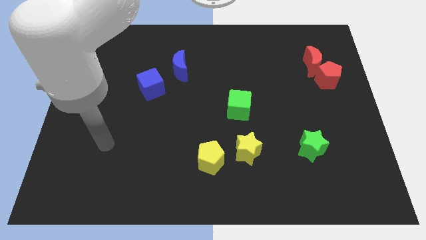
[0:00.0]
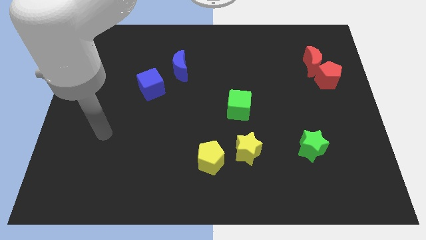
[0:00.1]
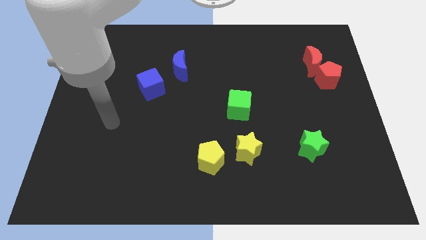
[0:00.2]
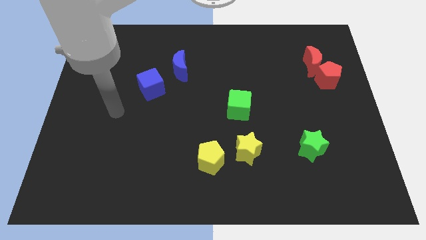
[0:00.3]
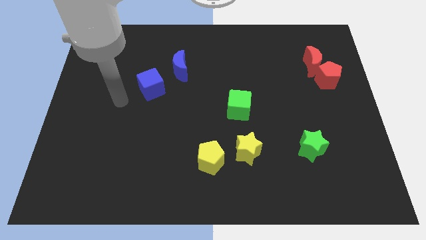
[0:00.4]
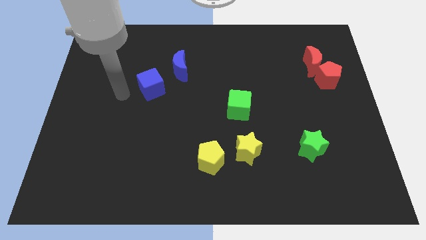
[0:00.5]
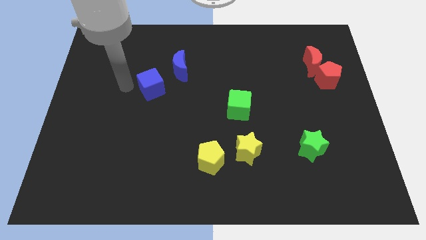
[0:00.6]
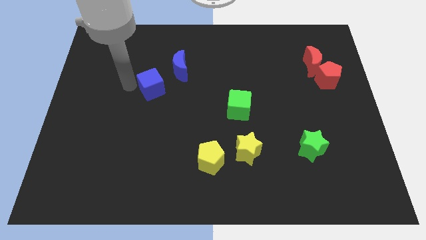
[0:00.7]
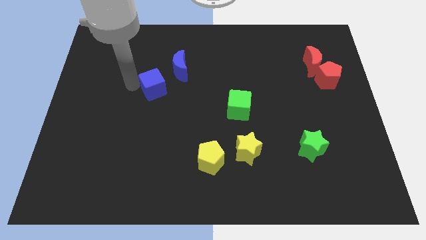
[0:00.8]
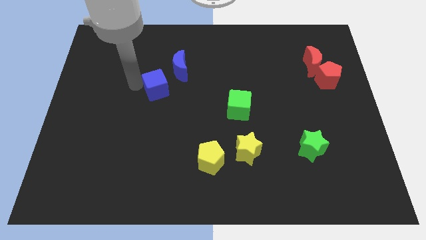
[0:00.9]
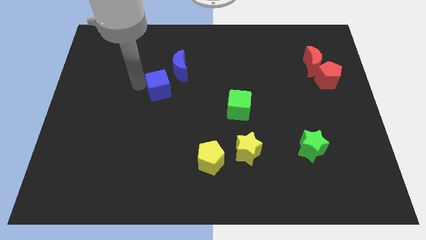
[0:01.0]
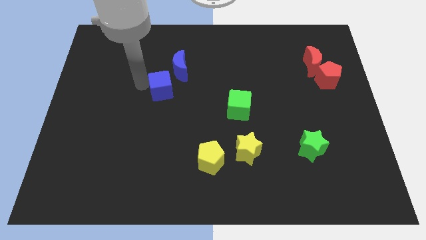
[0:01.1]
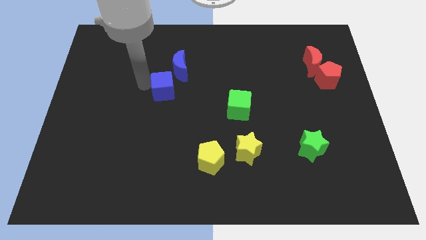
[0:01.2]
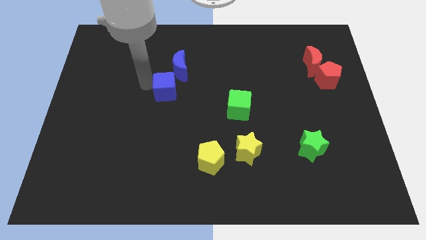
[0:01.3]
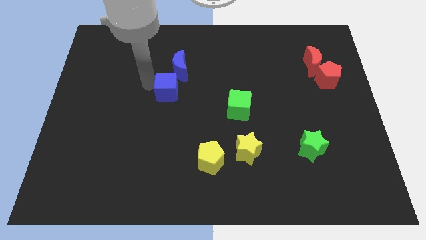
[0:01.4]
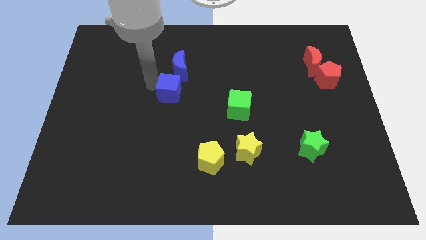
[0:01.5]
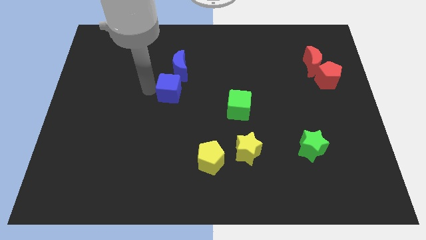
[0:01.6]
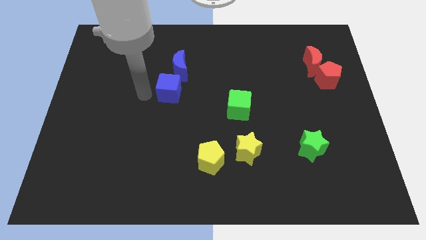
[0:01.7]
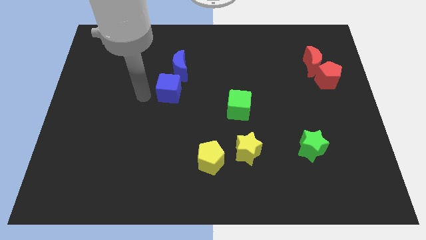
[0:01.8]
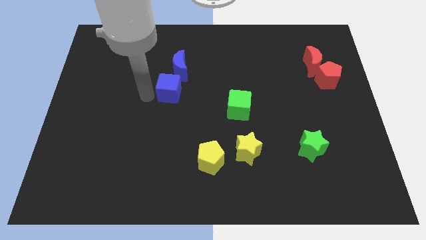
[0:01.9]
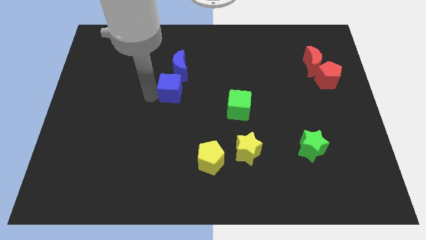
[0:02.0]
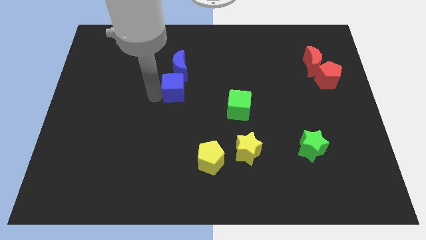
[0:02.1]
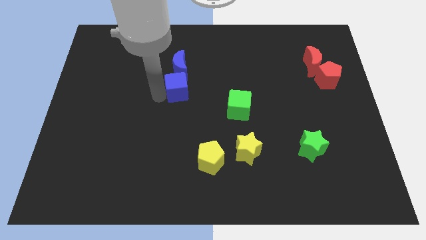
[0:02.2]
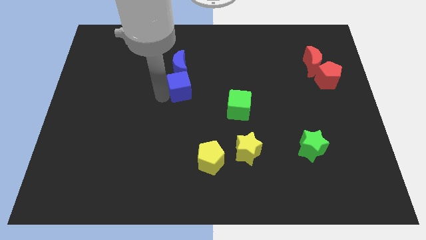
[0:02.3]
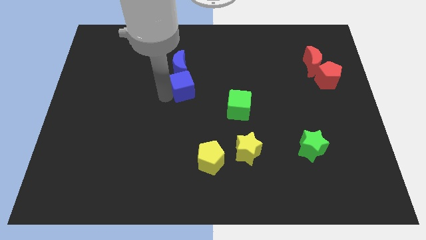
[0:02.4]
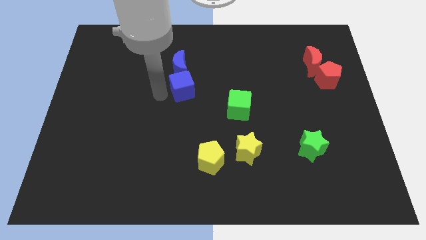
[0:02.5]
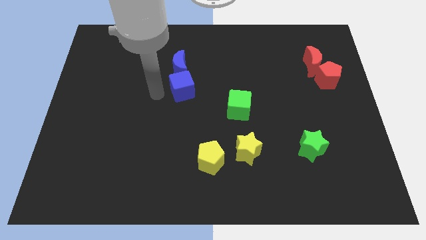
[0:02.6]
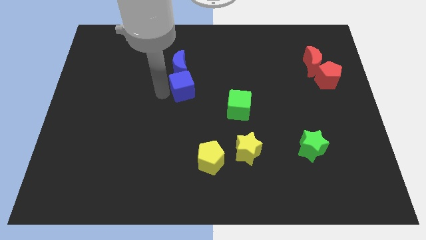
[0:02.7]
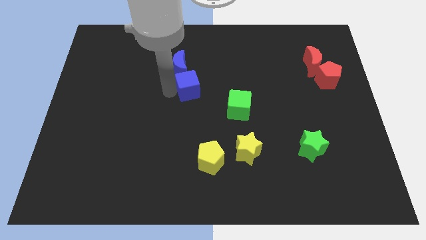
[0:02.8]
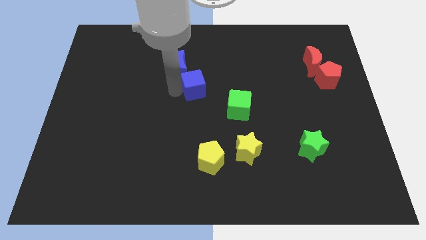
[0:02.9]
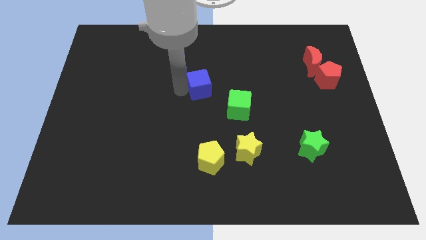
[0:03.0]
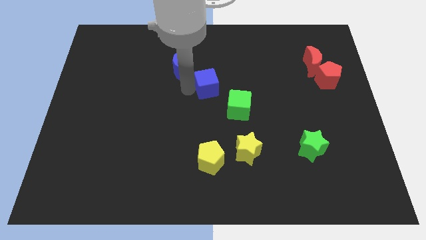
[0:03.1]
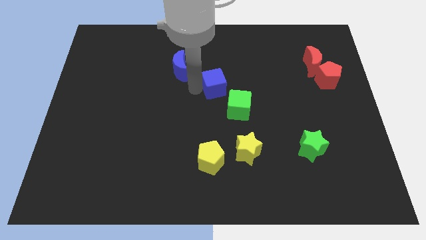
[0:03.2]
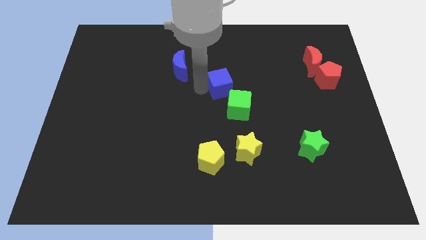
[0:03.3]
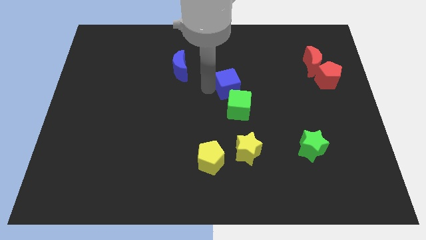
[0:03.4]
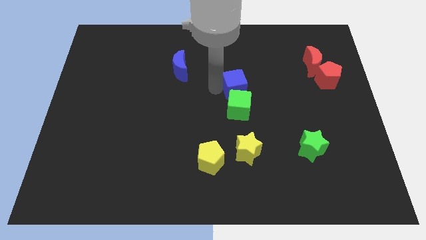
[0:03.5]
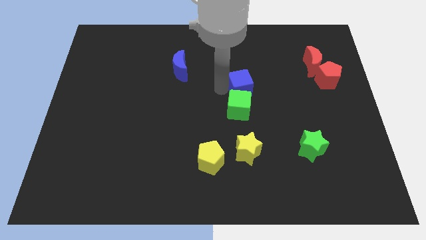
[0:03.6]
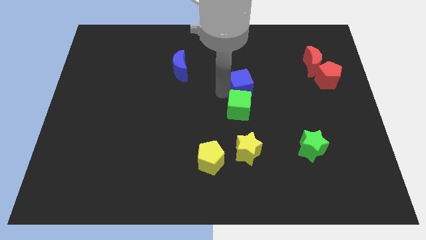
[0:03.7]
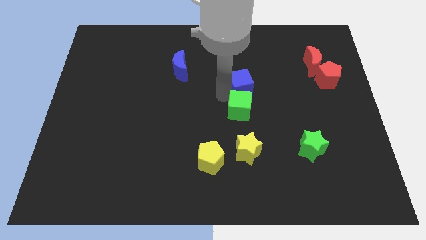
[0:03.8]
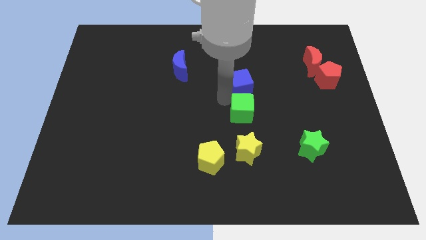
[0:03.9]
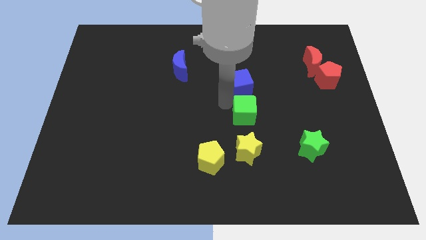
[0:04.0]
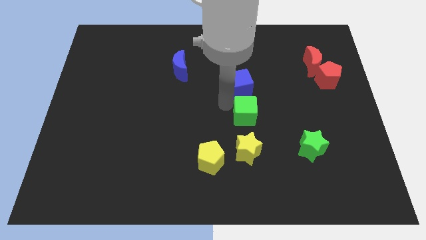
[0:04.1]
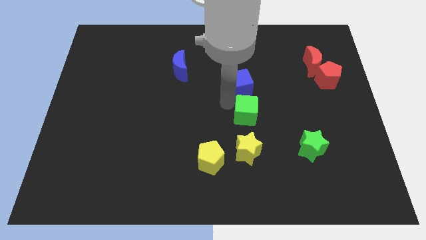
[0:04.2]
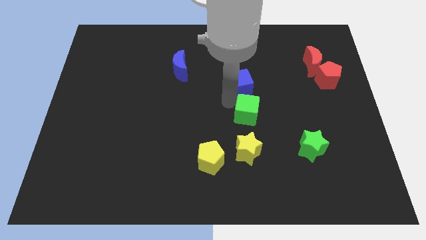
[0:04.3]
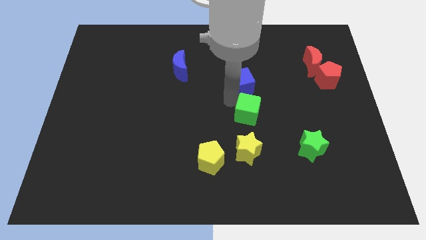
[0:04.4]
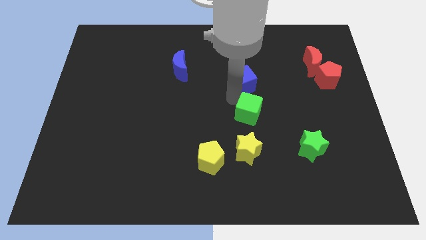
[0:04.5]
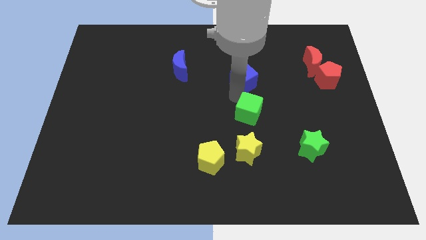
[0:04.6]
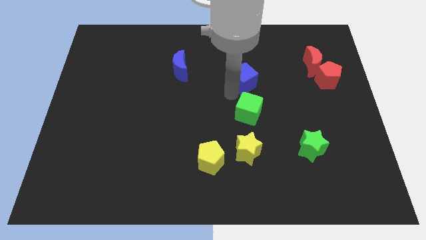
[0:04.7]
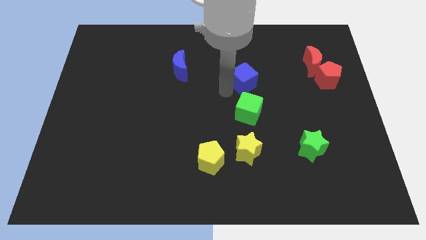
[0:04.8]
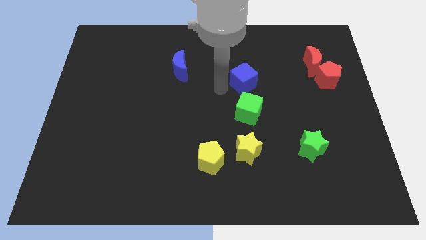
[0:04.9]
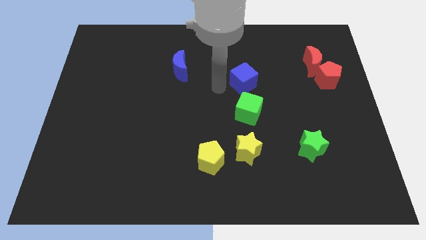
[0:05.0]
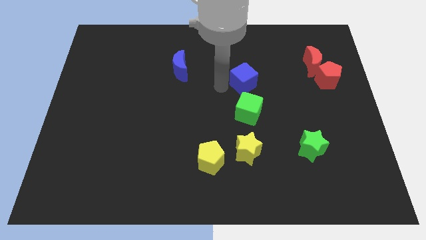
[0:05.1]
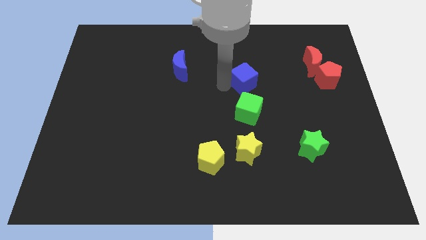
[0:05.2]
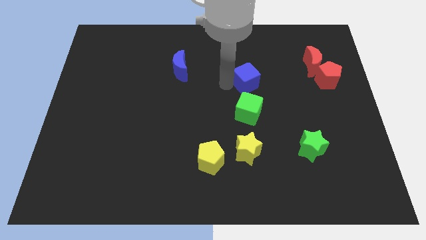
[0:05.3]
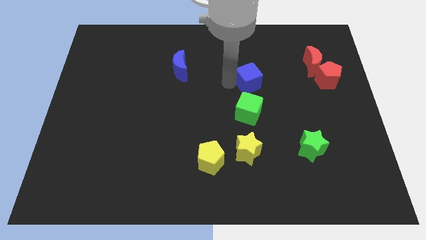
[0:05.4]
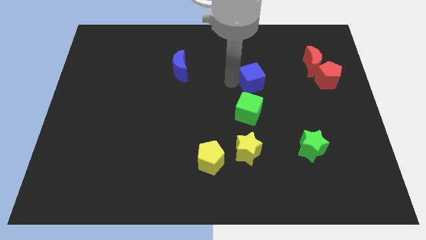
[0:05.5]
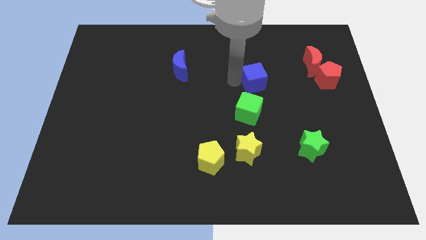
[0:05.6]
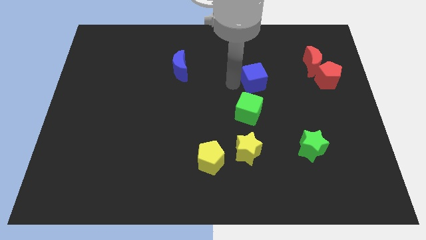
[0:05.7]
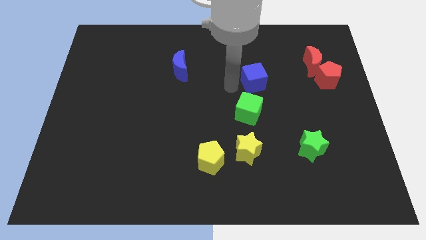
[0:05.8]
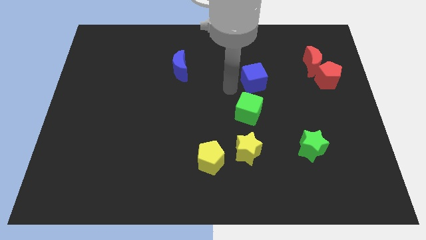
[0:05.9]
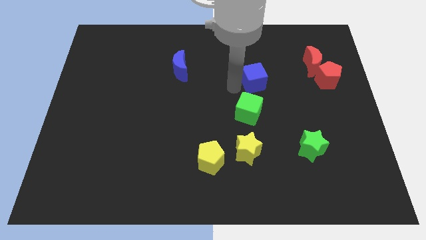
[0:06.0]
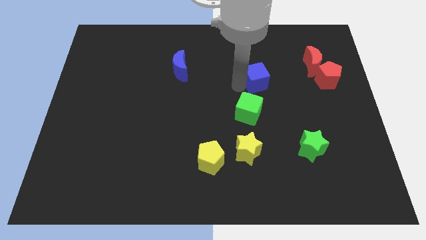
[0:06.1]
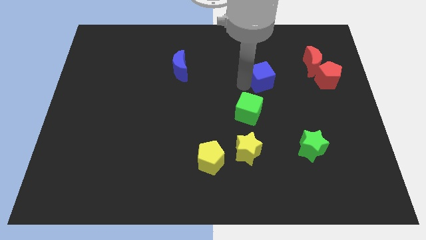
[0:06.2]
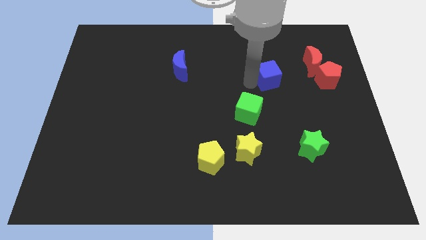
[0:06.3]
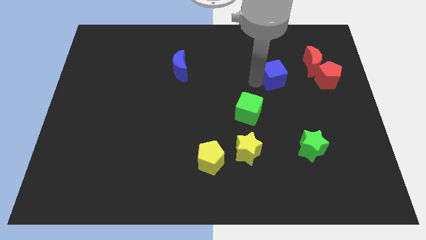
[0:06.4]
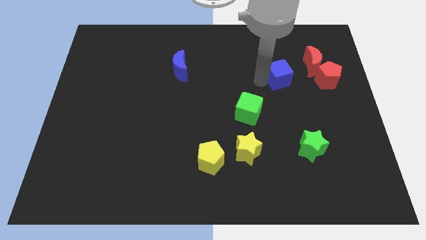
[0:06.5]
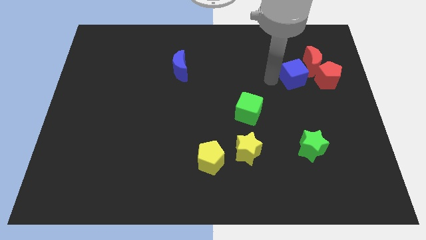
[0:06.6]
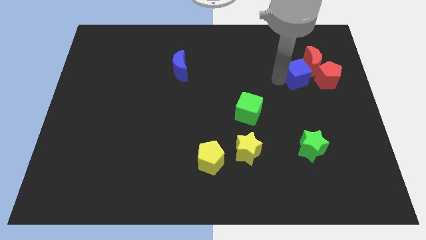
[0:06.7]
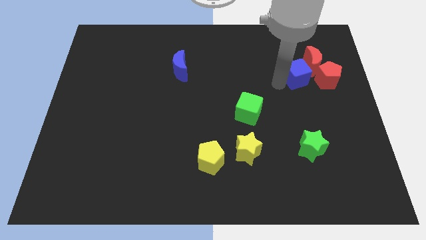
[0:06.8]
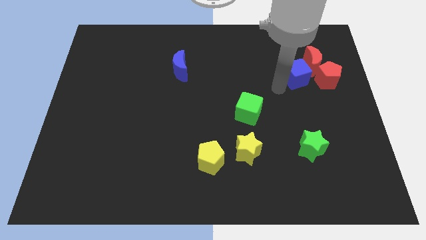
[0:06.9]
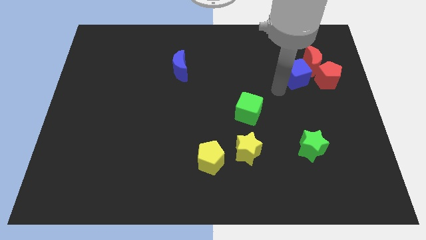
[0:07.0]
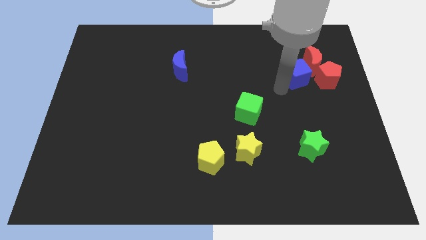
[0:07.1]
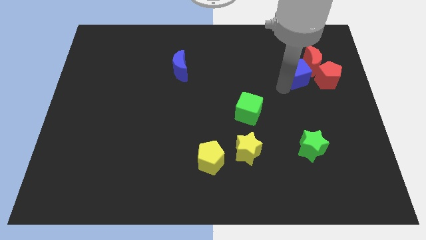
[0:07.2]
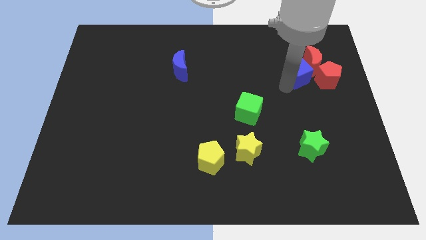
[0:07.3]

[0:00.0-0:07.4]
move the blue cube close to the red moon
